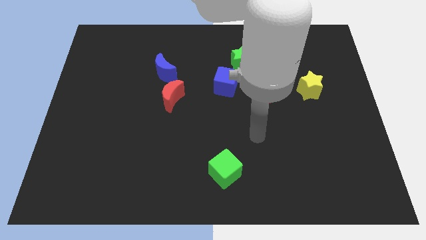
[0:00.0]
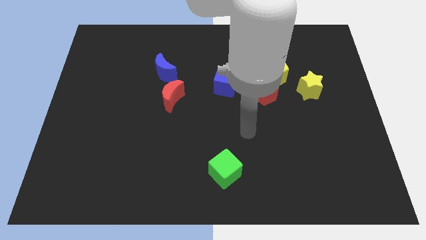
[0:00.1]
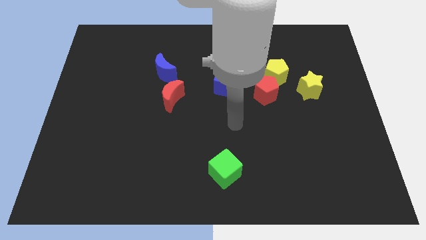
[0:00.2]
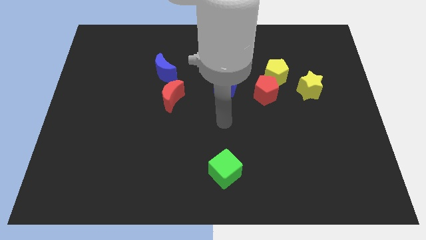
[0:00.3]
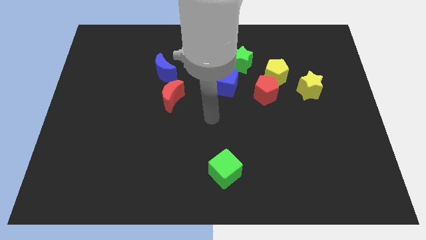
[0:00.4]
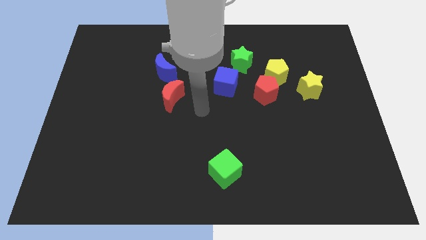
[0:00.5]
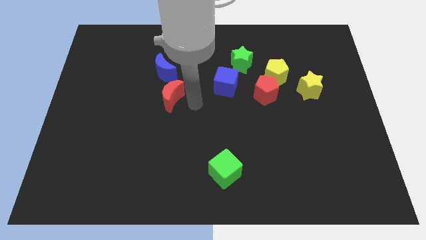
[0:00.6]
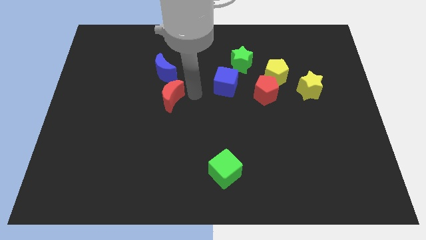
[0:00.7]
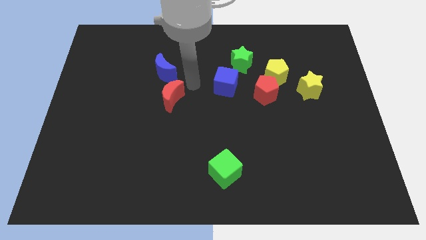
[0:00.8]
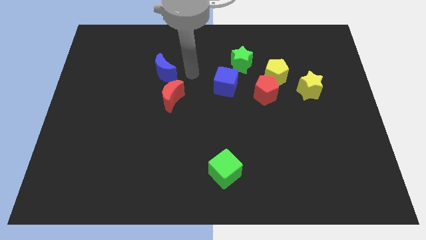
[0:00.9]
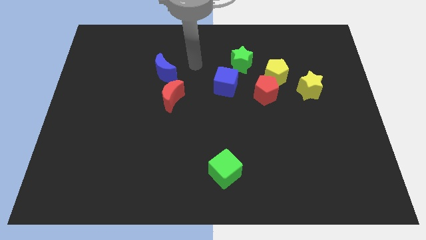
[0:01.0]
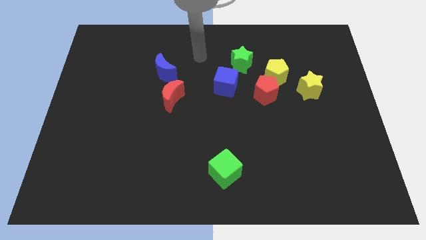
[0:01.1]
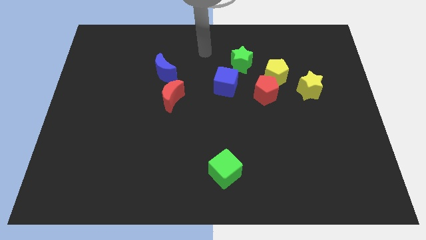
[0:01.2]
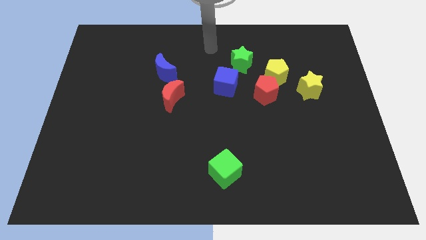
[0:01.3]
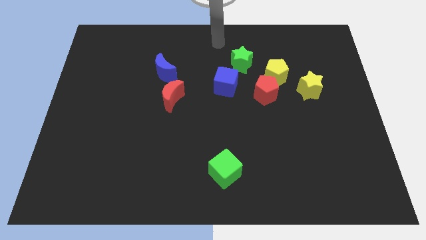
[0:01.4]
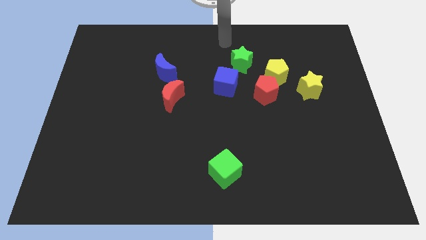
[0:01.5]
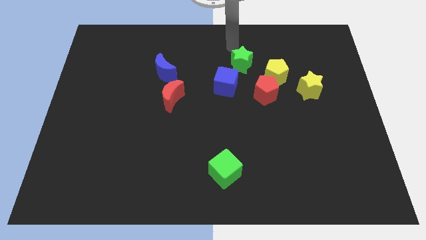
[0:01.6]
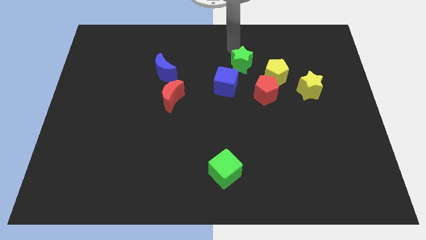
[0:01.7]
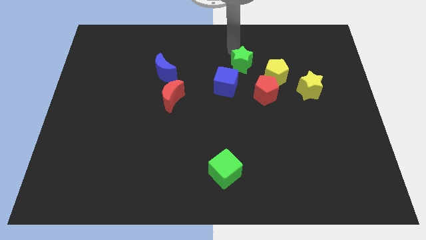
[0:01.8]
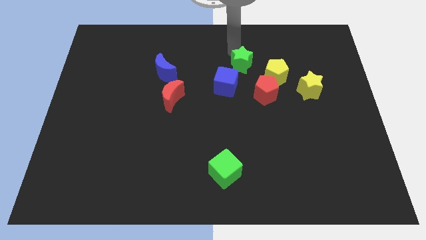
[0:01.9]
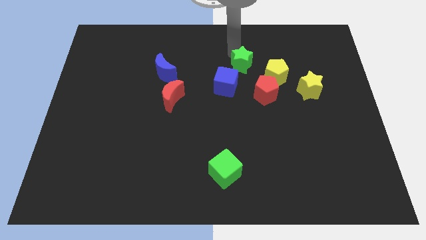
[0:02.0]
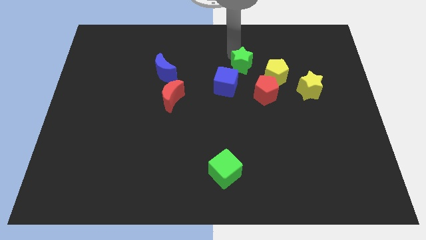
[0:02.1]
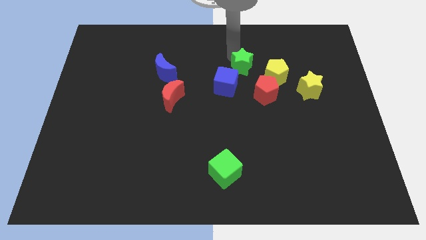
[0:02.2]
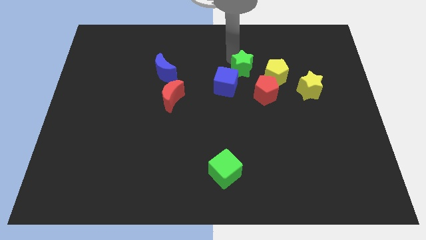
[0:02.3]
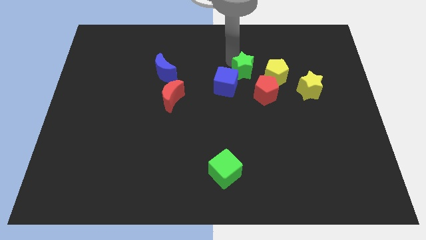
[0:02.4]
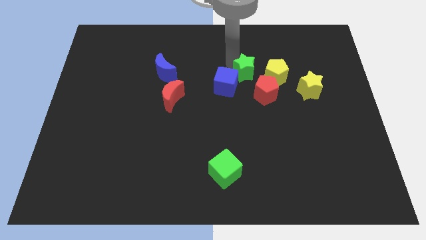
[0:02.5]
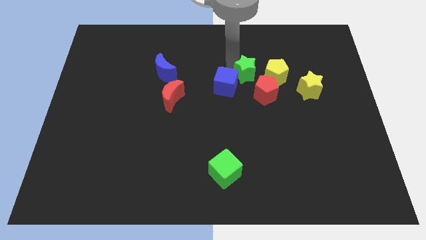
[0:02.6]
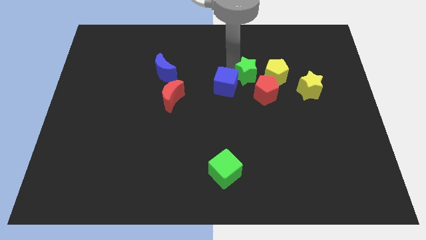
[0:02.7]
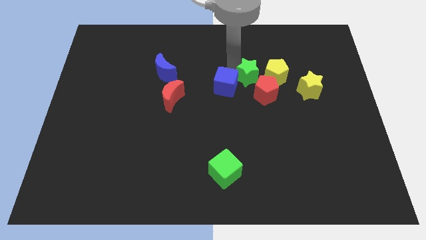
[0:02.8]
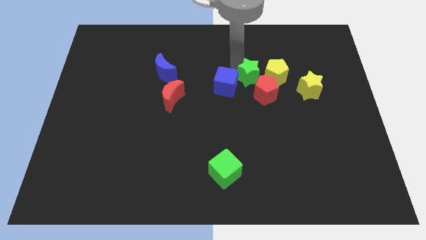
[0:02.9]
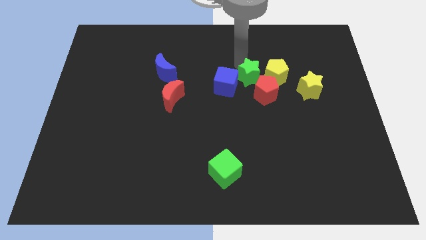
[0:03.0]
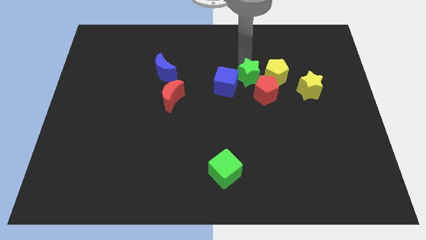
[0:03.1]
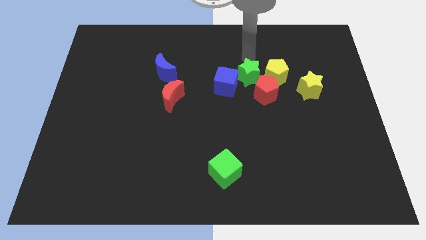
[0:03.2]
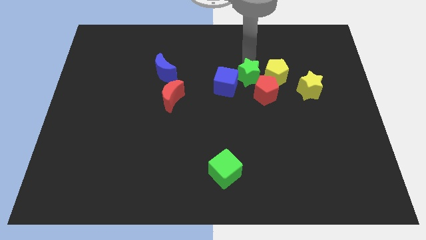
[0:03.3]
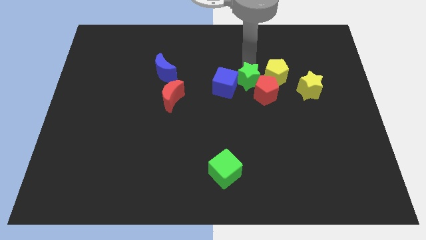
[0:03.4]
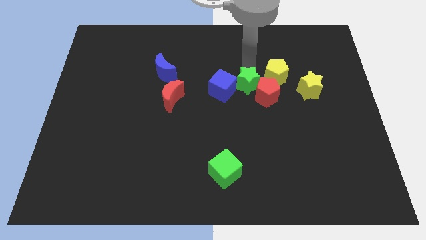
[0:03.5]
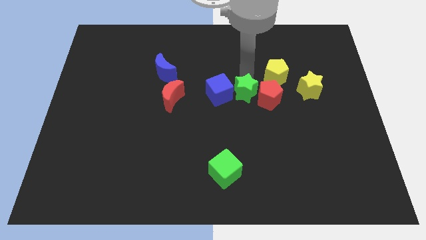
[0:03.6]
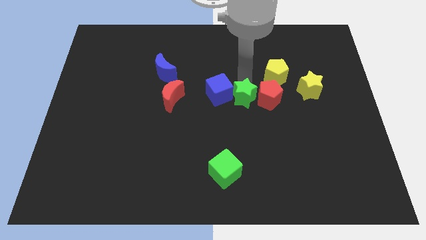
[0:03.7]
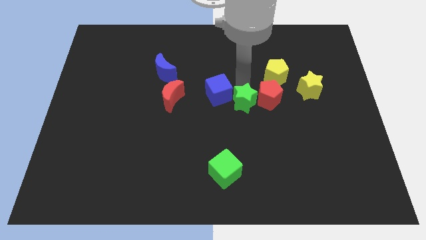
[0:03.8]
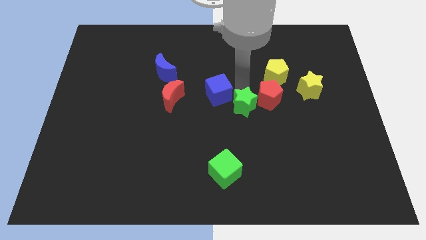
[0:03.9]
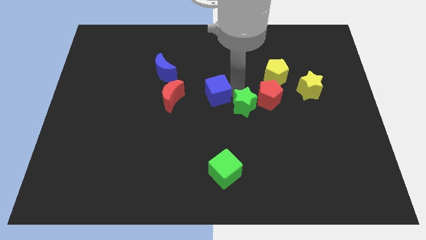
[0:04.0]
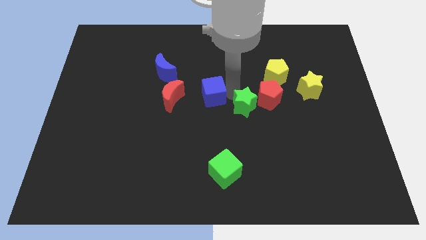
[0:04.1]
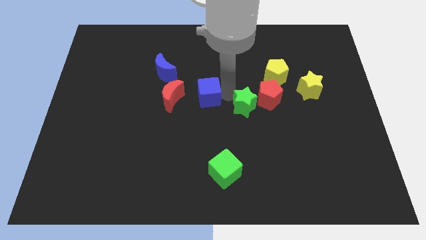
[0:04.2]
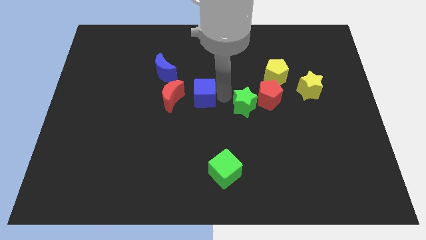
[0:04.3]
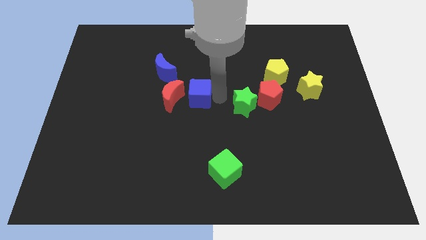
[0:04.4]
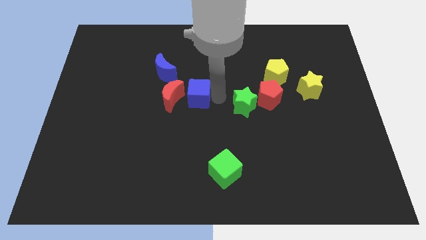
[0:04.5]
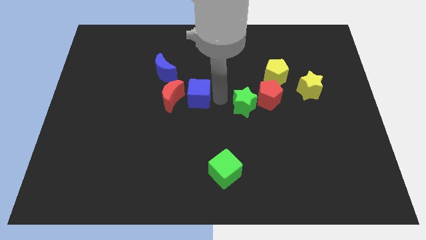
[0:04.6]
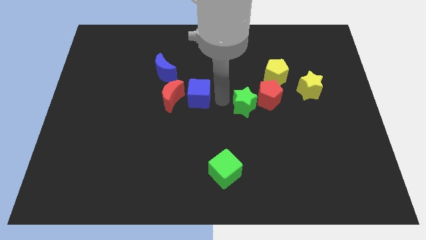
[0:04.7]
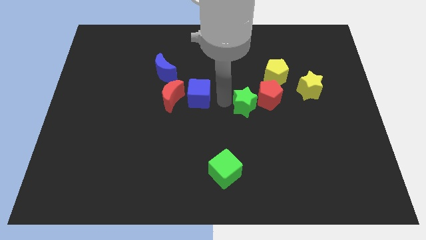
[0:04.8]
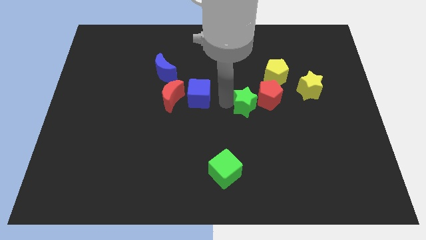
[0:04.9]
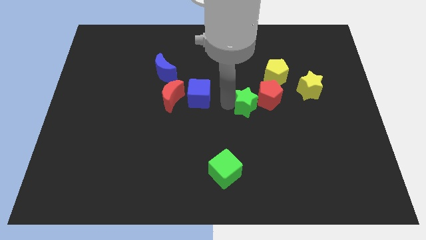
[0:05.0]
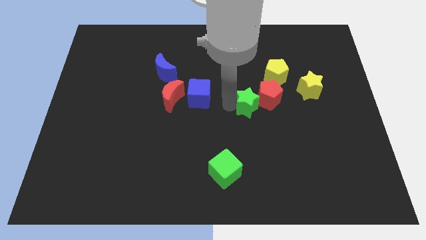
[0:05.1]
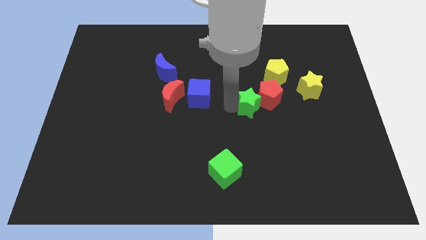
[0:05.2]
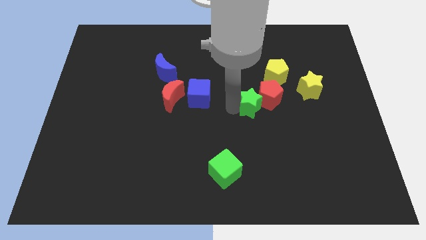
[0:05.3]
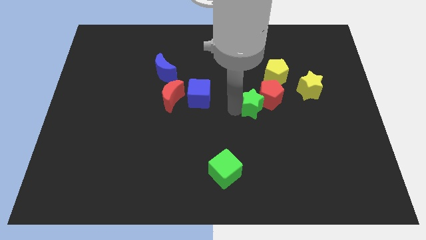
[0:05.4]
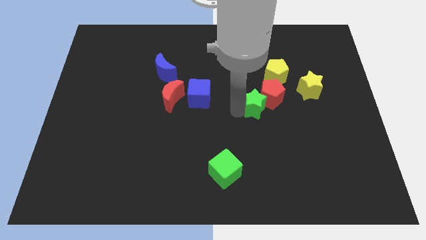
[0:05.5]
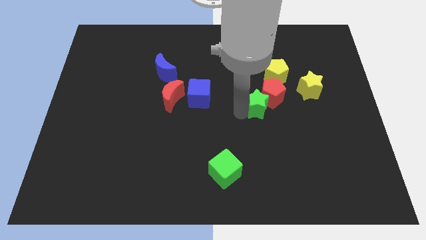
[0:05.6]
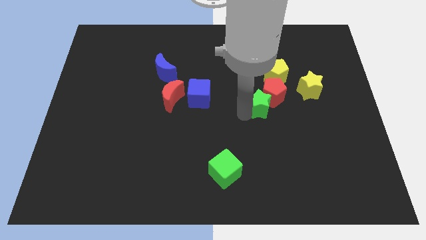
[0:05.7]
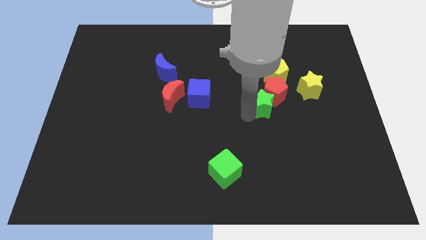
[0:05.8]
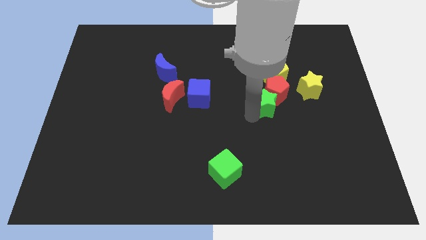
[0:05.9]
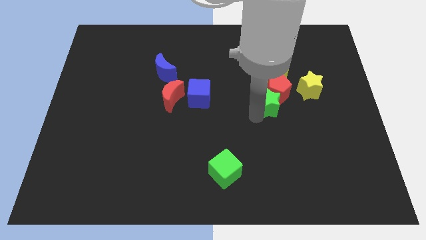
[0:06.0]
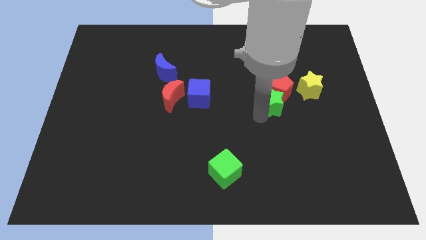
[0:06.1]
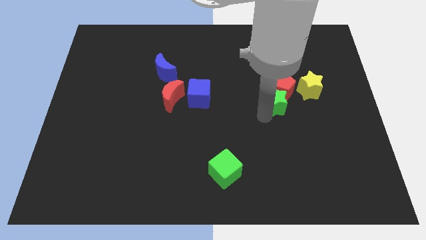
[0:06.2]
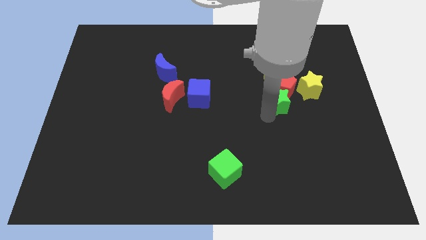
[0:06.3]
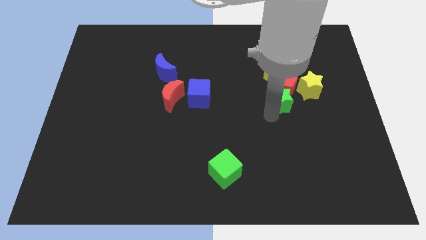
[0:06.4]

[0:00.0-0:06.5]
slide the green star to the bottom right side of the red pentagon

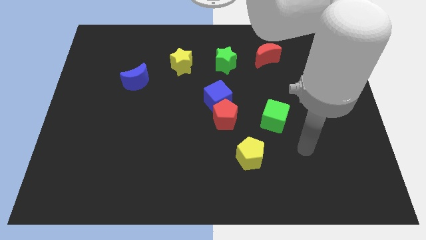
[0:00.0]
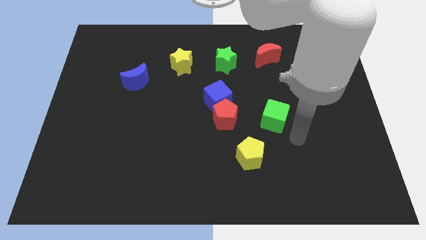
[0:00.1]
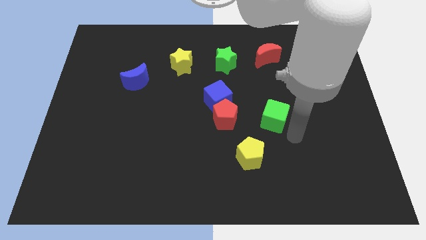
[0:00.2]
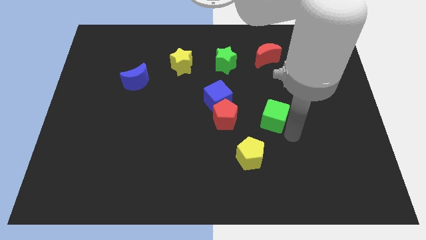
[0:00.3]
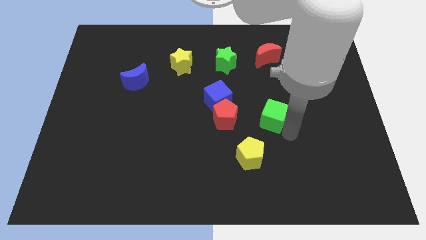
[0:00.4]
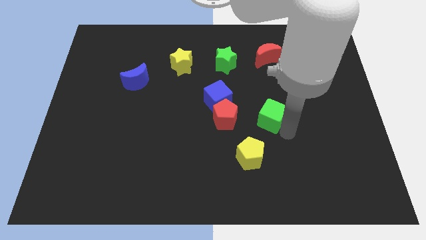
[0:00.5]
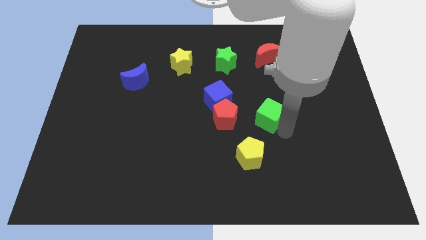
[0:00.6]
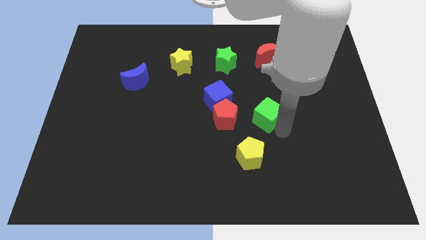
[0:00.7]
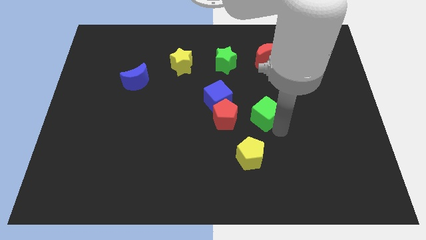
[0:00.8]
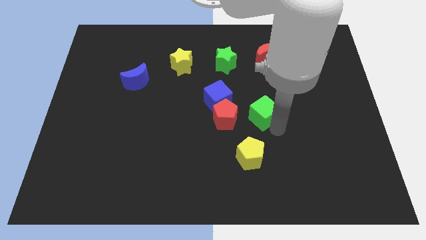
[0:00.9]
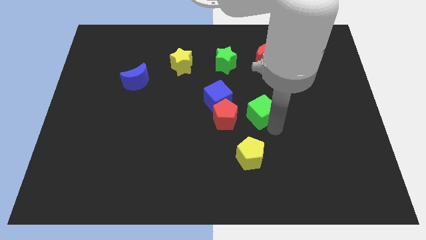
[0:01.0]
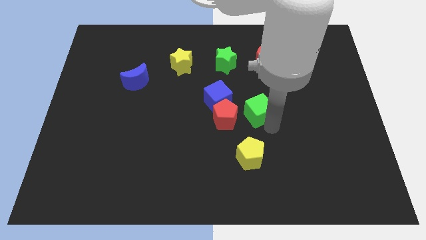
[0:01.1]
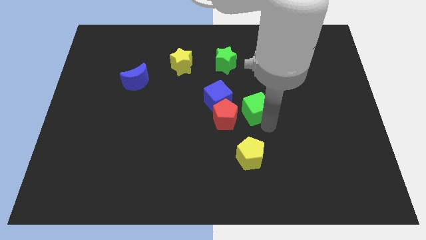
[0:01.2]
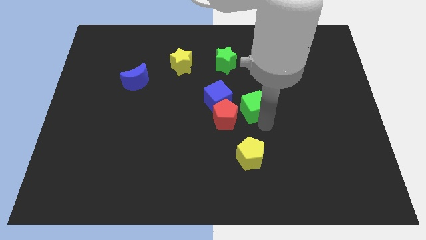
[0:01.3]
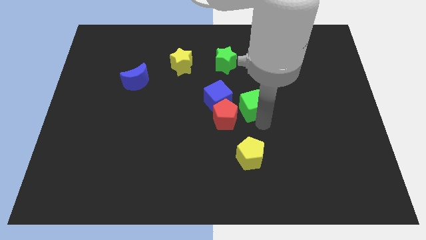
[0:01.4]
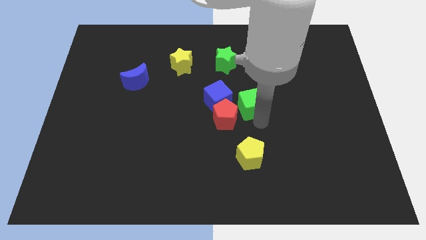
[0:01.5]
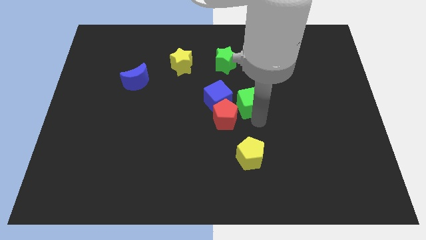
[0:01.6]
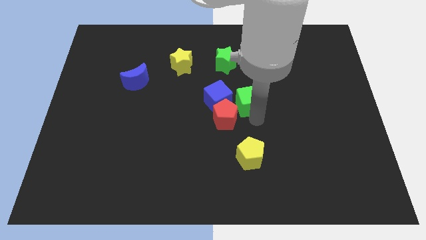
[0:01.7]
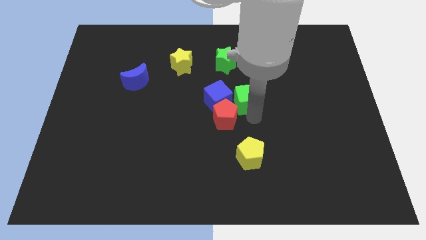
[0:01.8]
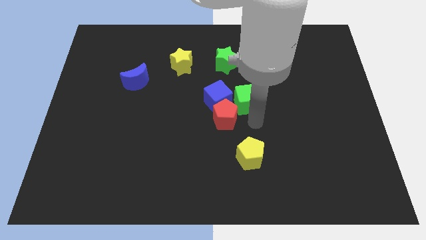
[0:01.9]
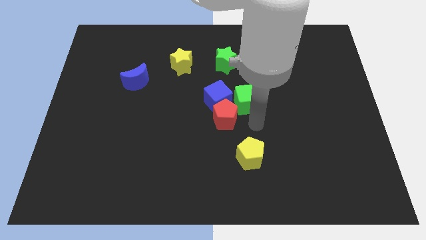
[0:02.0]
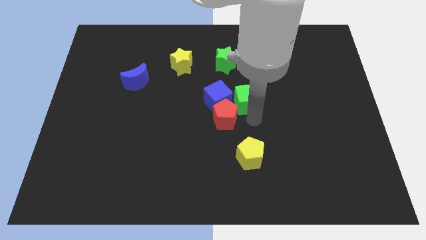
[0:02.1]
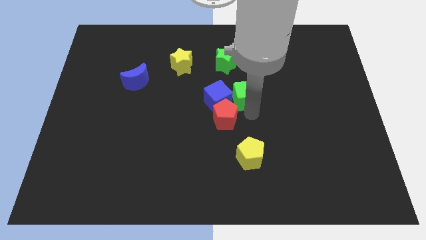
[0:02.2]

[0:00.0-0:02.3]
push the green cube to the top right side of the blue cube
